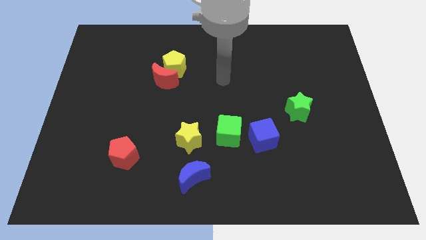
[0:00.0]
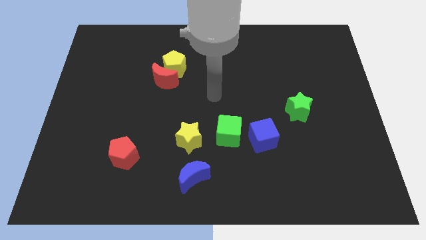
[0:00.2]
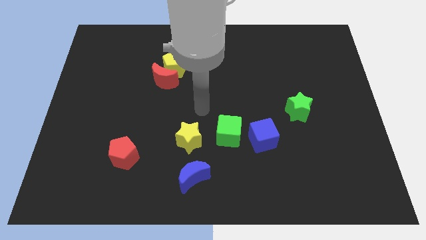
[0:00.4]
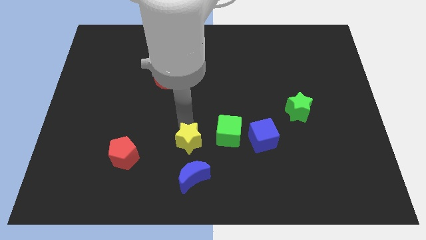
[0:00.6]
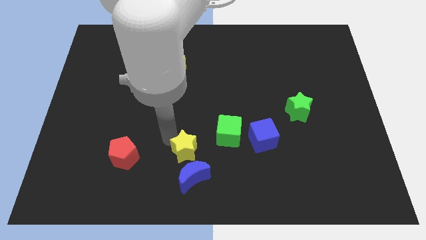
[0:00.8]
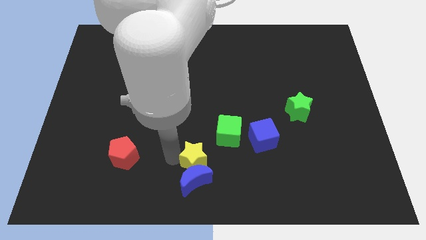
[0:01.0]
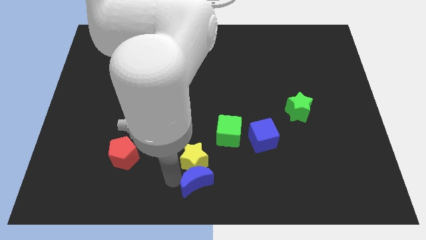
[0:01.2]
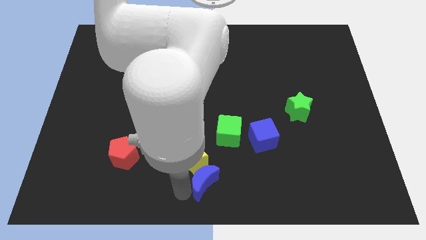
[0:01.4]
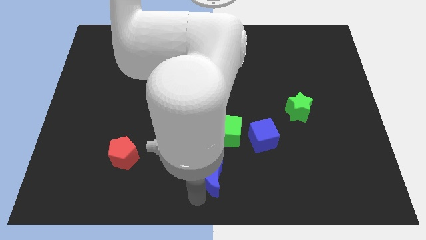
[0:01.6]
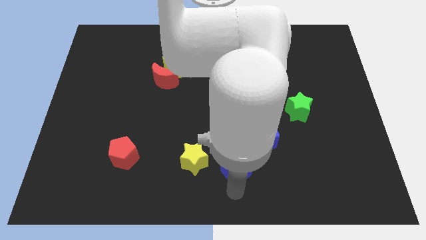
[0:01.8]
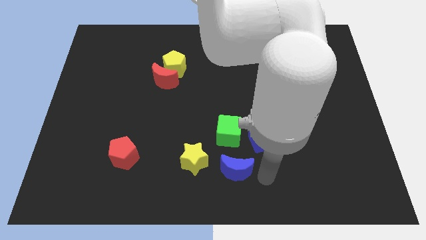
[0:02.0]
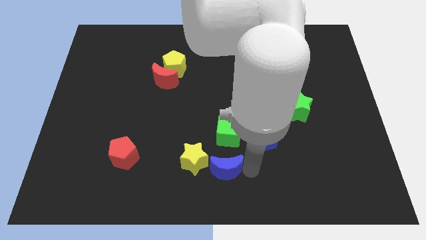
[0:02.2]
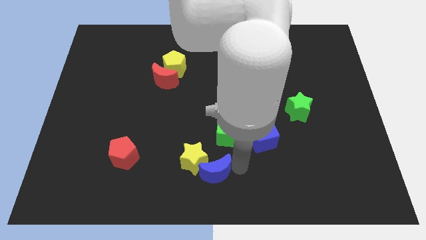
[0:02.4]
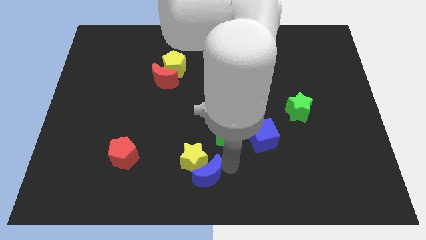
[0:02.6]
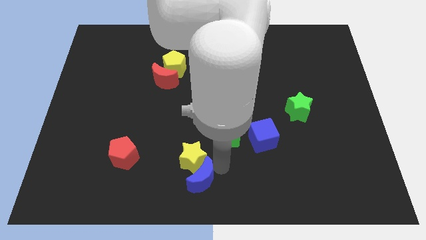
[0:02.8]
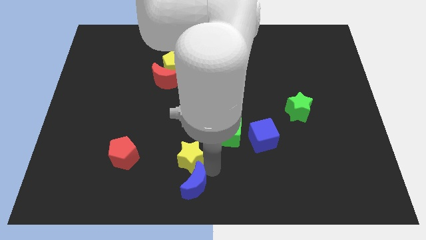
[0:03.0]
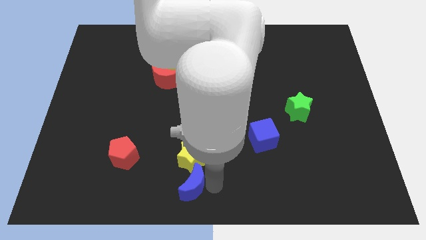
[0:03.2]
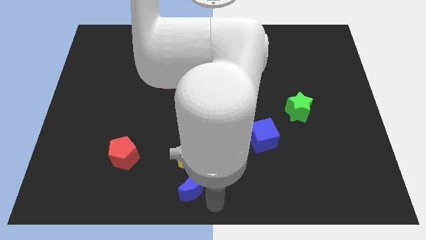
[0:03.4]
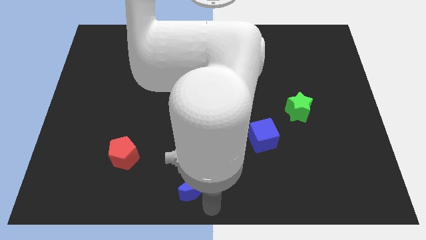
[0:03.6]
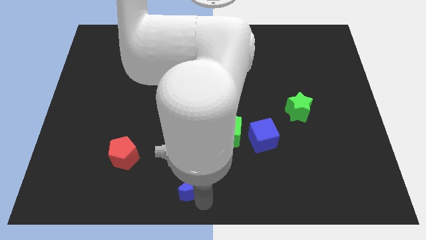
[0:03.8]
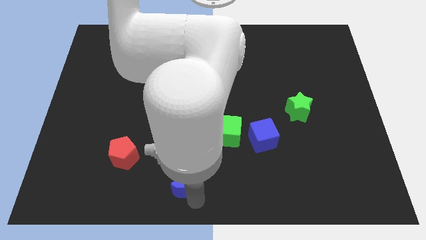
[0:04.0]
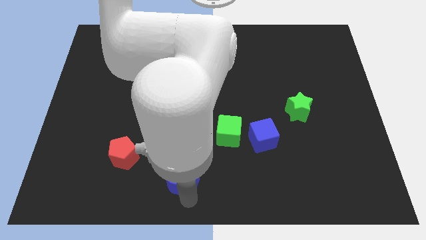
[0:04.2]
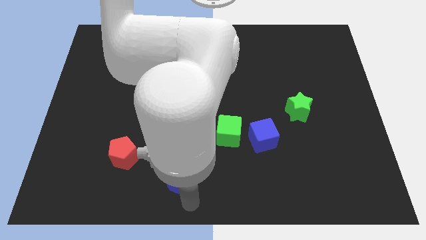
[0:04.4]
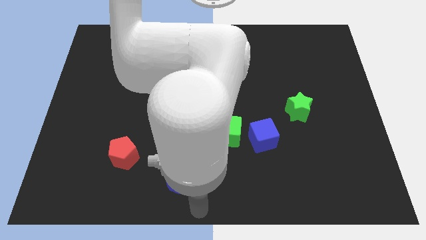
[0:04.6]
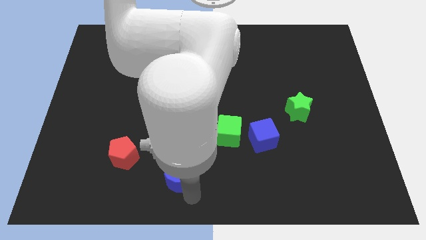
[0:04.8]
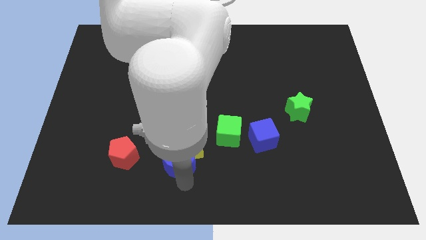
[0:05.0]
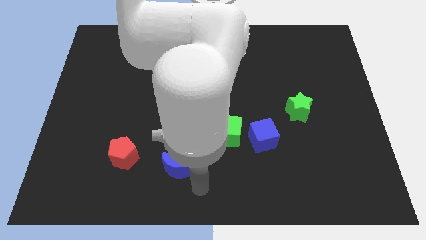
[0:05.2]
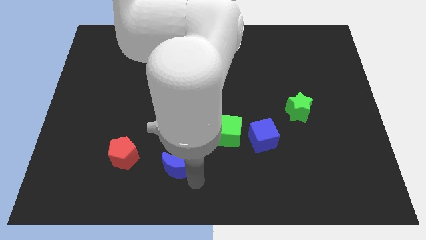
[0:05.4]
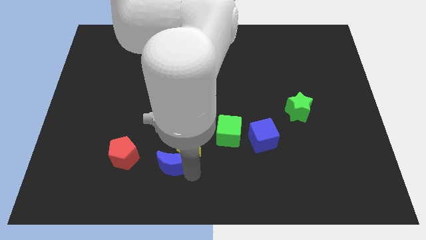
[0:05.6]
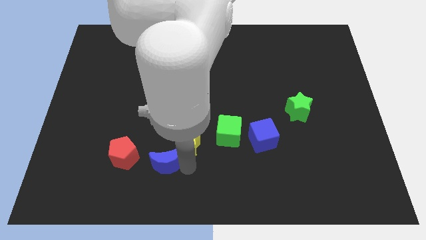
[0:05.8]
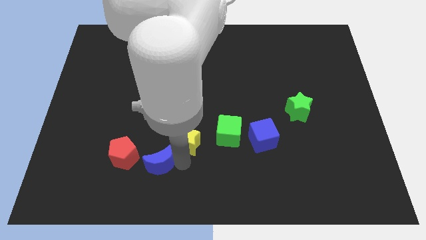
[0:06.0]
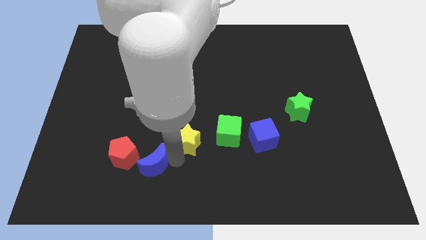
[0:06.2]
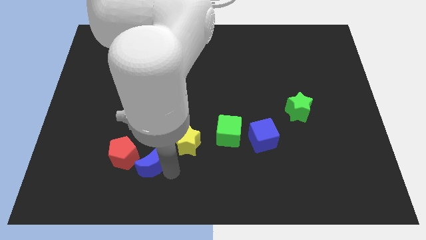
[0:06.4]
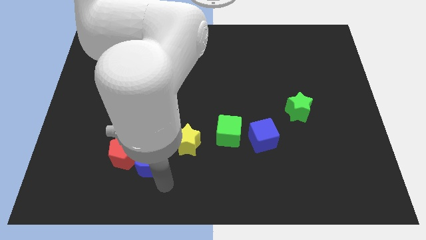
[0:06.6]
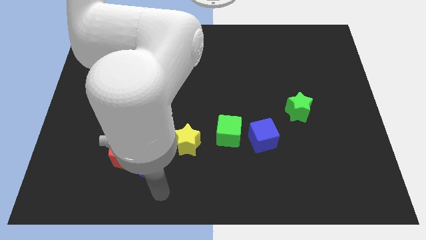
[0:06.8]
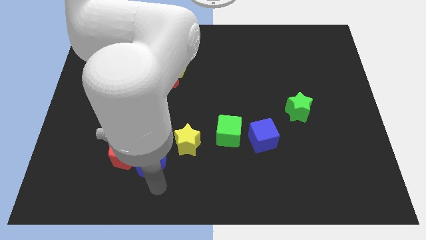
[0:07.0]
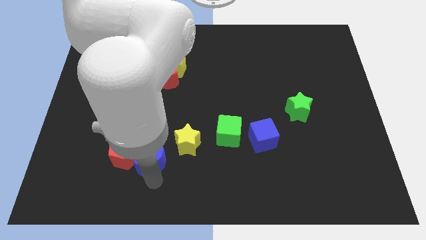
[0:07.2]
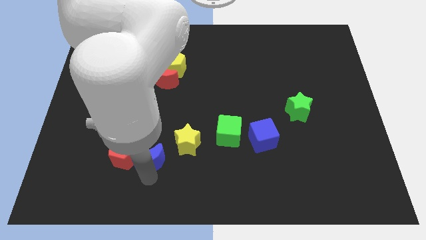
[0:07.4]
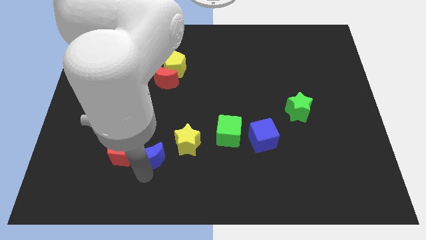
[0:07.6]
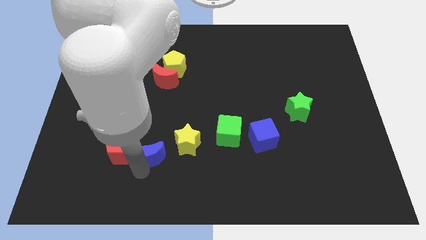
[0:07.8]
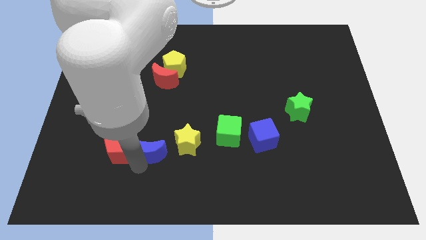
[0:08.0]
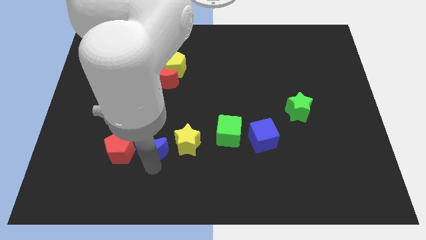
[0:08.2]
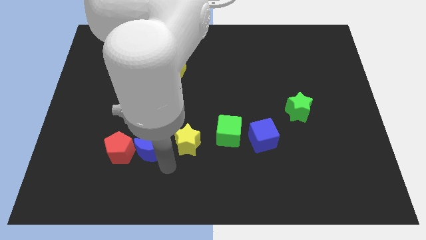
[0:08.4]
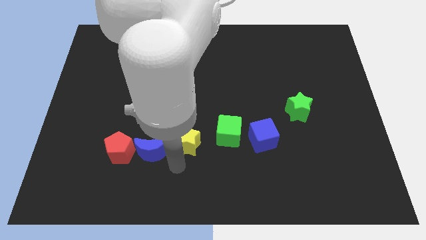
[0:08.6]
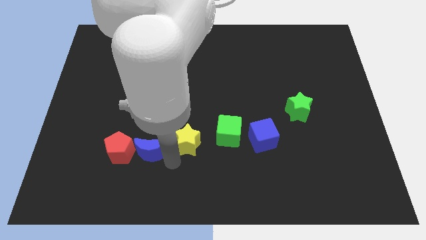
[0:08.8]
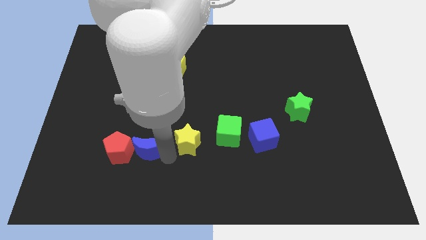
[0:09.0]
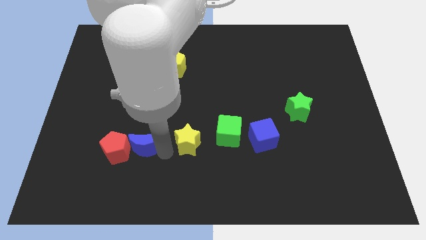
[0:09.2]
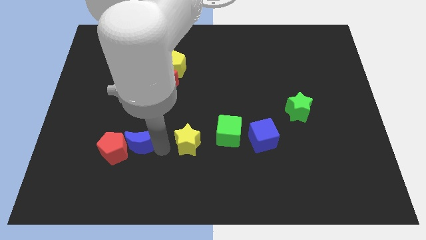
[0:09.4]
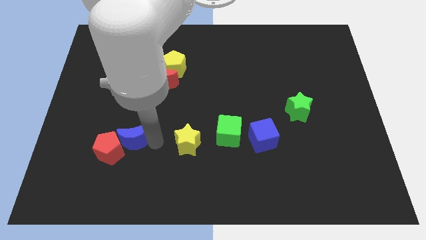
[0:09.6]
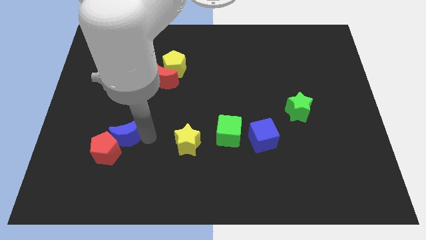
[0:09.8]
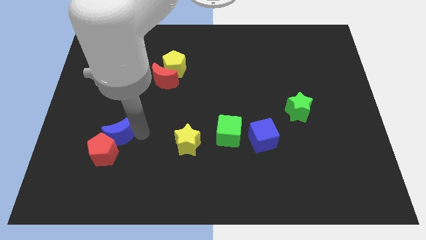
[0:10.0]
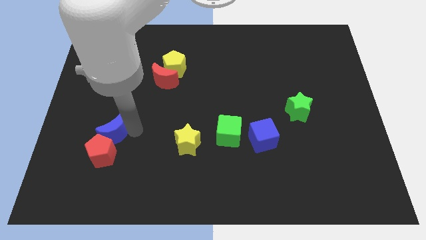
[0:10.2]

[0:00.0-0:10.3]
slide the blue moon to the top left of the red pentagon

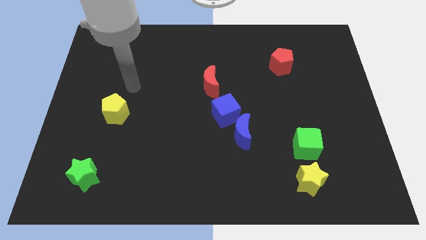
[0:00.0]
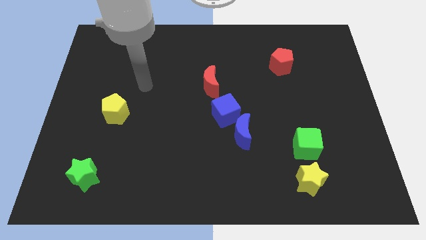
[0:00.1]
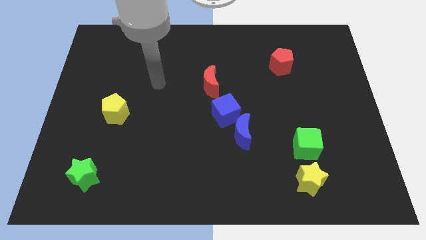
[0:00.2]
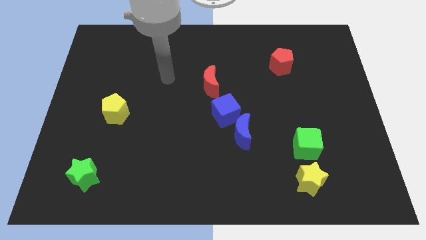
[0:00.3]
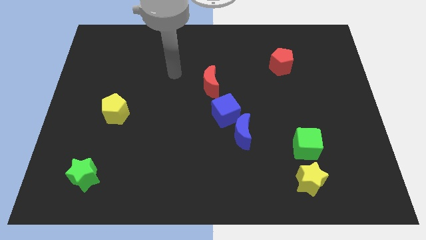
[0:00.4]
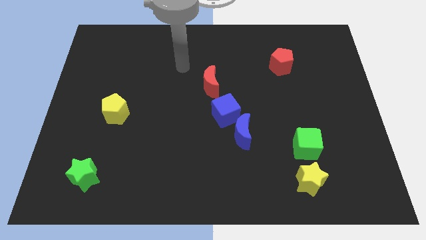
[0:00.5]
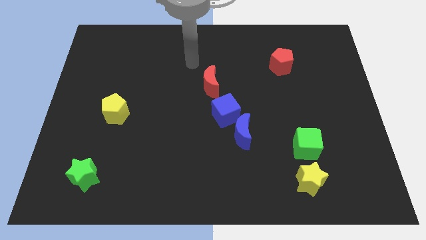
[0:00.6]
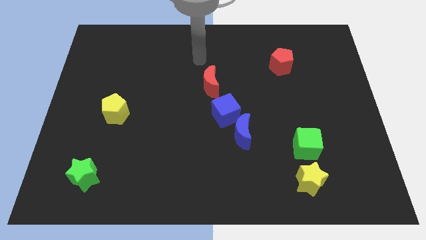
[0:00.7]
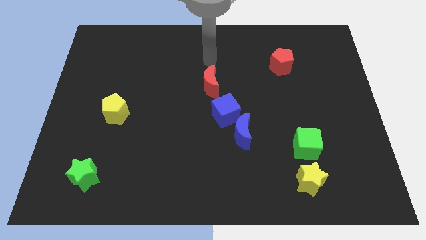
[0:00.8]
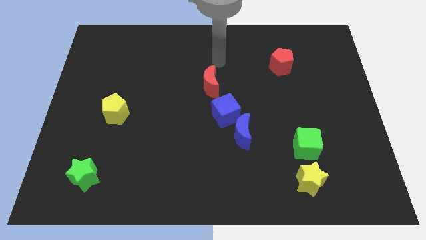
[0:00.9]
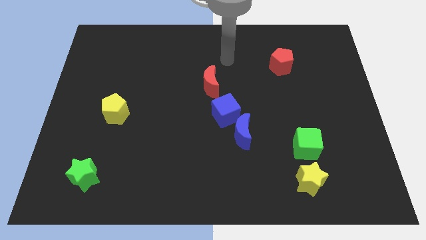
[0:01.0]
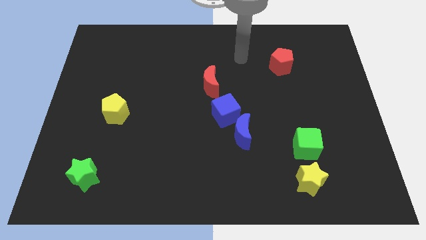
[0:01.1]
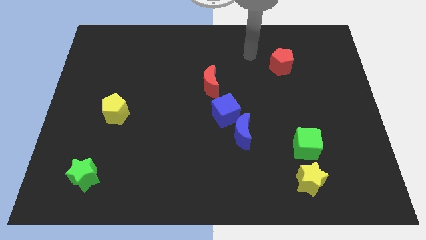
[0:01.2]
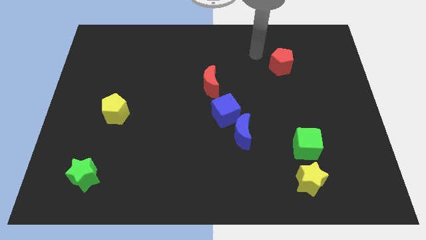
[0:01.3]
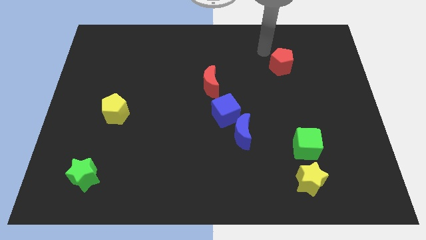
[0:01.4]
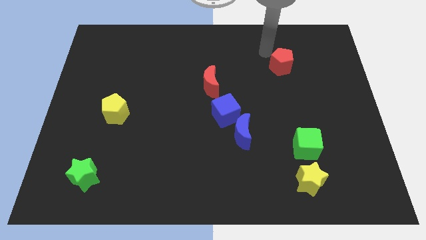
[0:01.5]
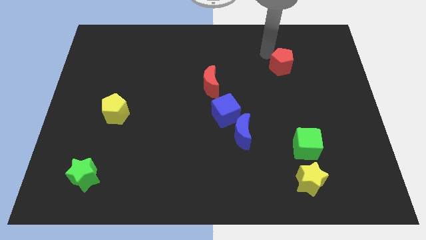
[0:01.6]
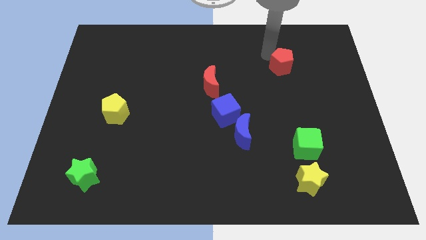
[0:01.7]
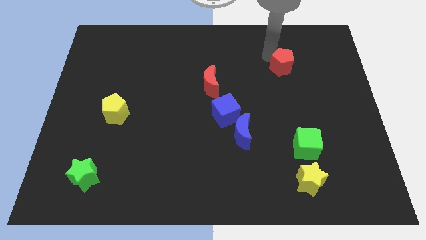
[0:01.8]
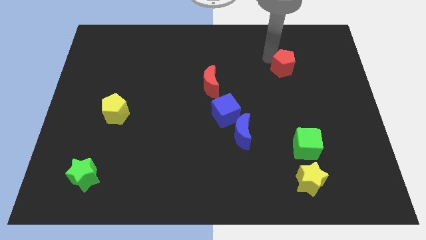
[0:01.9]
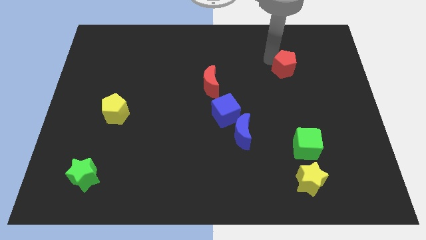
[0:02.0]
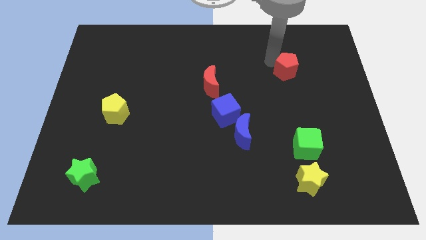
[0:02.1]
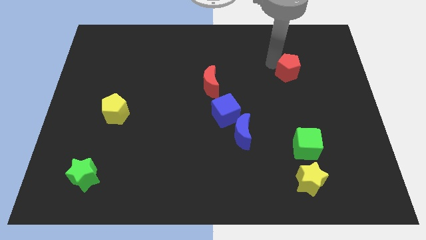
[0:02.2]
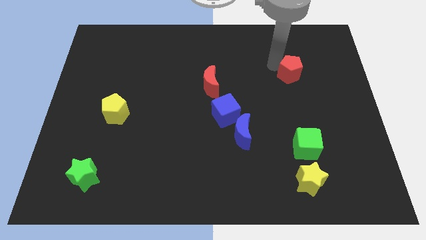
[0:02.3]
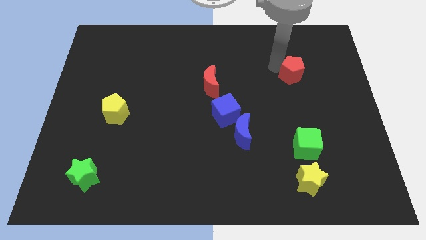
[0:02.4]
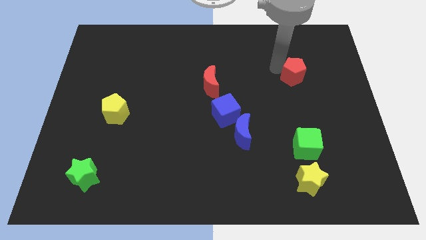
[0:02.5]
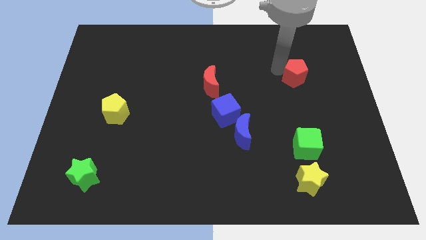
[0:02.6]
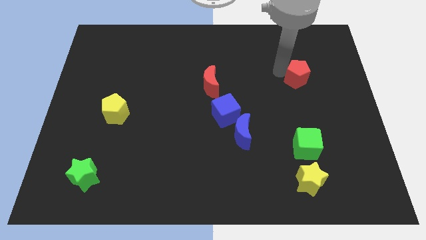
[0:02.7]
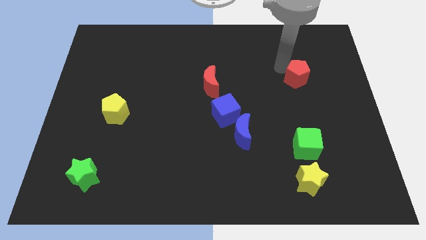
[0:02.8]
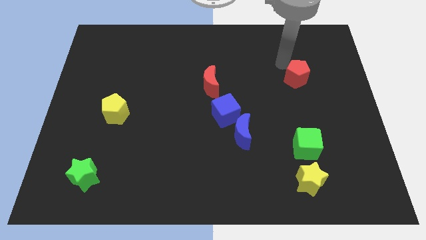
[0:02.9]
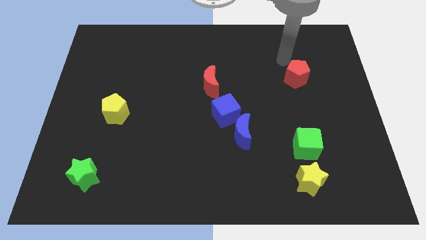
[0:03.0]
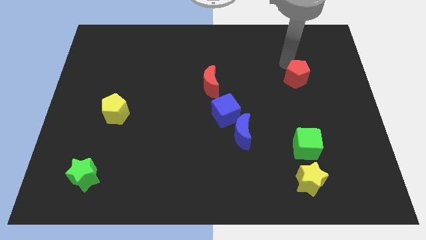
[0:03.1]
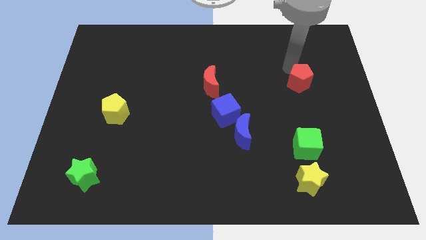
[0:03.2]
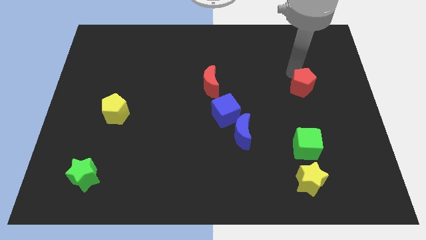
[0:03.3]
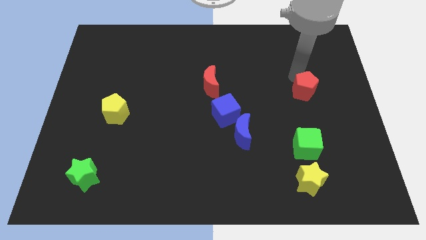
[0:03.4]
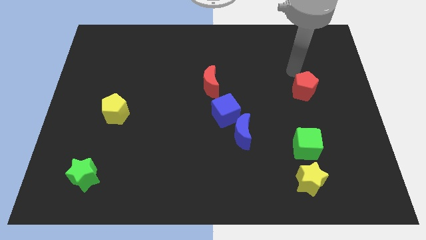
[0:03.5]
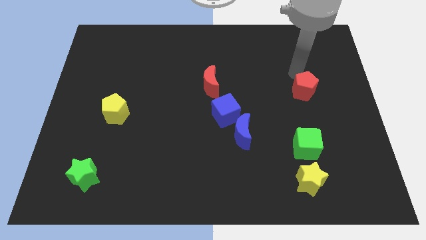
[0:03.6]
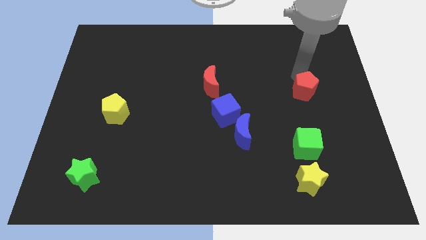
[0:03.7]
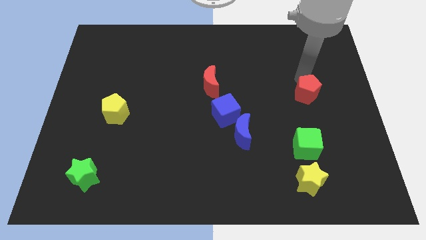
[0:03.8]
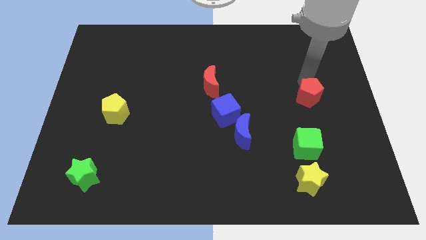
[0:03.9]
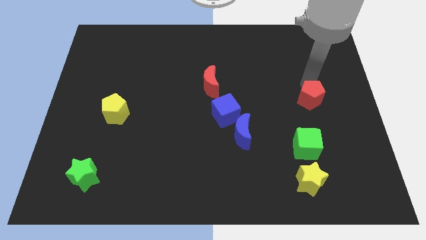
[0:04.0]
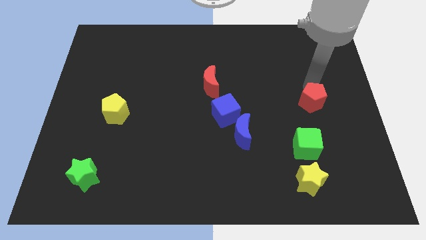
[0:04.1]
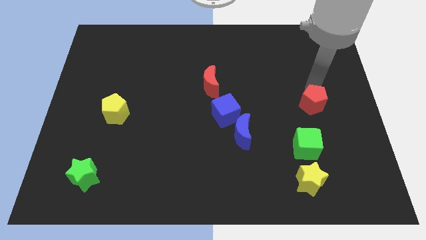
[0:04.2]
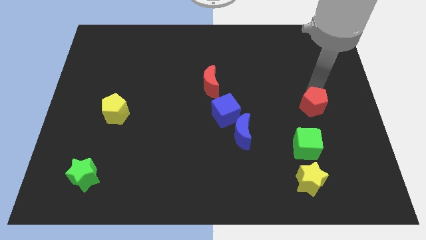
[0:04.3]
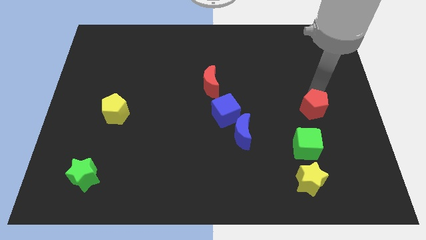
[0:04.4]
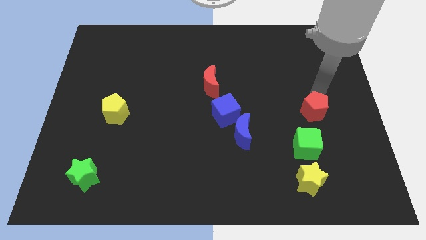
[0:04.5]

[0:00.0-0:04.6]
move the red pentagon to the top right of the green cube
